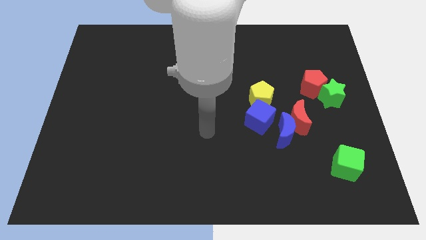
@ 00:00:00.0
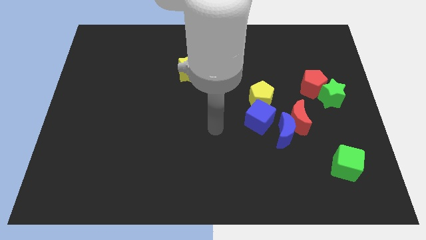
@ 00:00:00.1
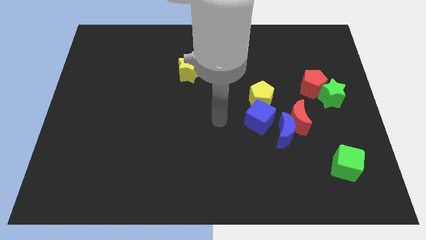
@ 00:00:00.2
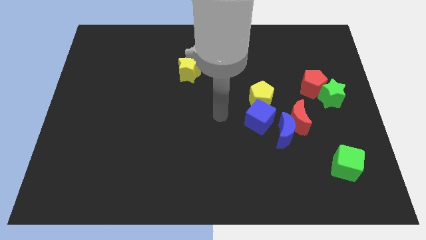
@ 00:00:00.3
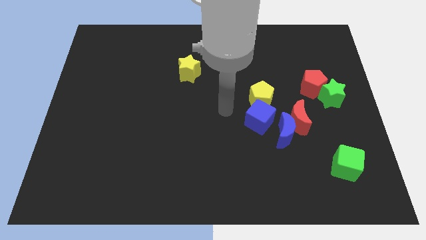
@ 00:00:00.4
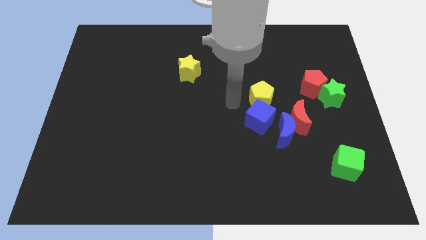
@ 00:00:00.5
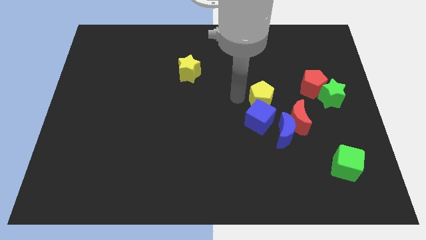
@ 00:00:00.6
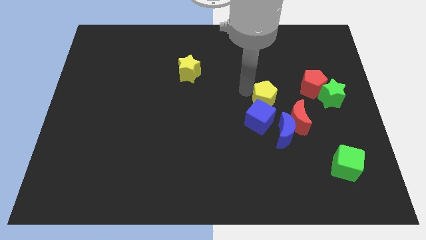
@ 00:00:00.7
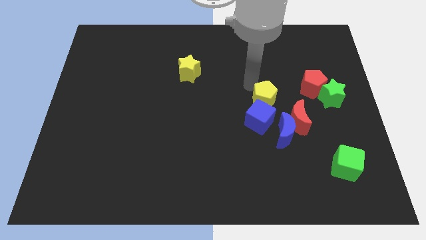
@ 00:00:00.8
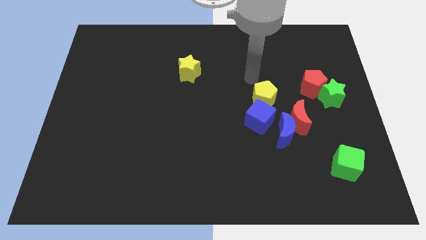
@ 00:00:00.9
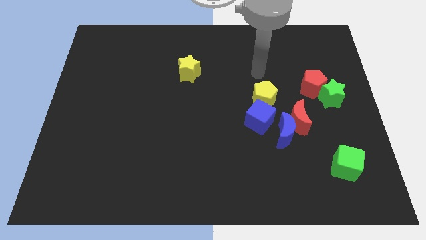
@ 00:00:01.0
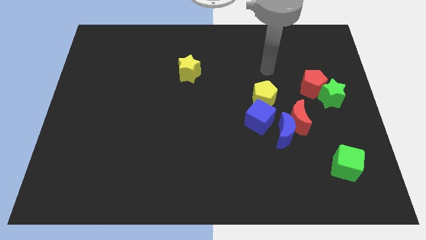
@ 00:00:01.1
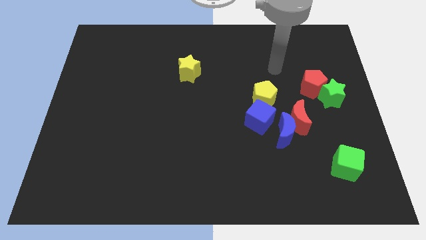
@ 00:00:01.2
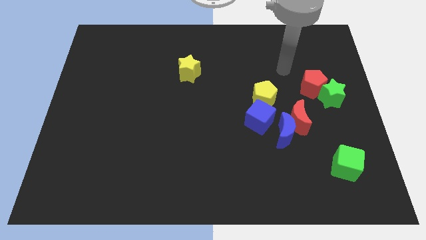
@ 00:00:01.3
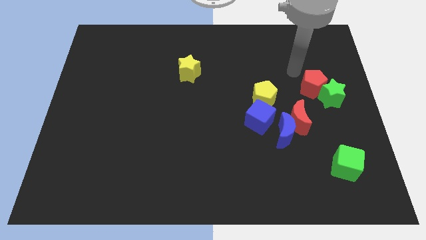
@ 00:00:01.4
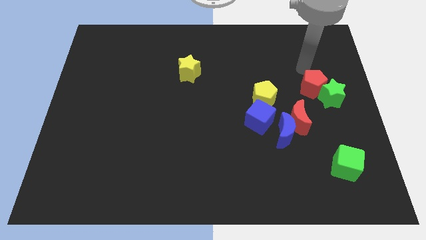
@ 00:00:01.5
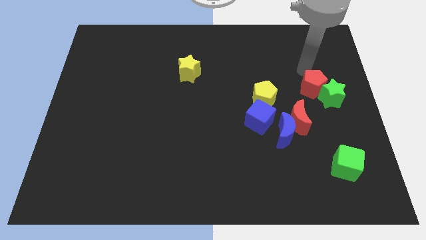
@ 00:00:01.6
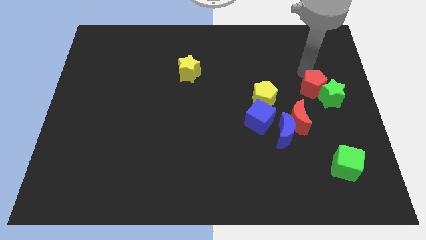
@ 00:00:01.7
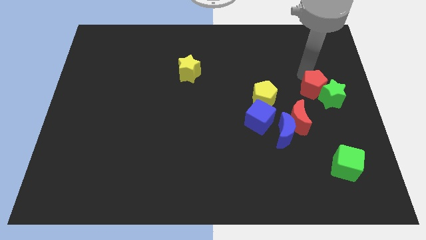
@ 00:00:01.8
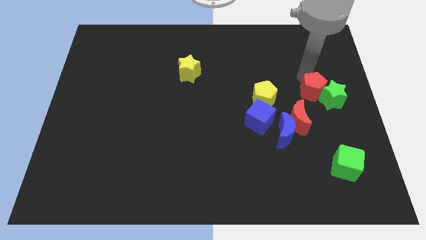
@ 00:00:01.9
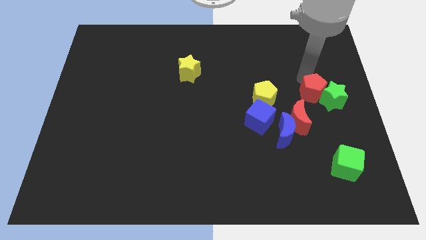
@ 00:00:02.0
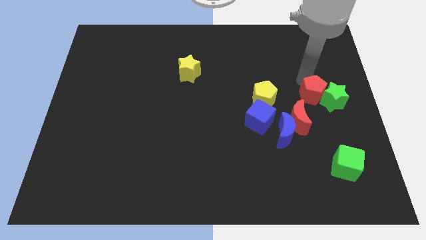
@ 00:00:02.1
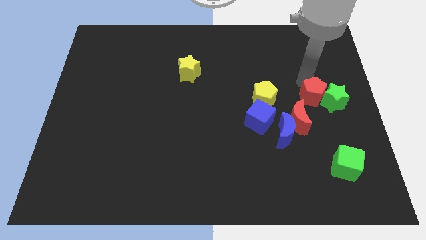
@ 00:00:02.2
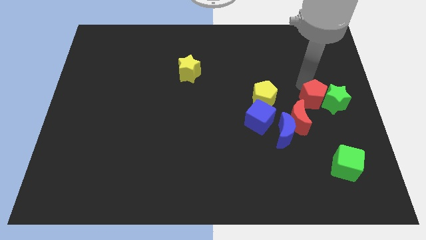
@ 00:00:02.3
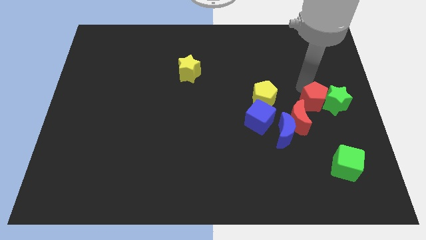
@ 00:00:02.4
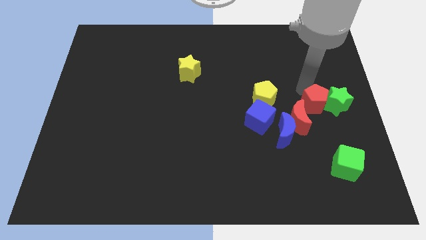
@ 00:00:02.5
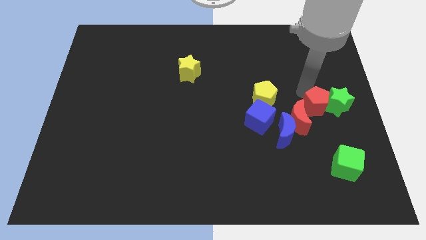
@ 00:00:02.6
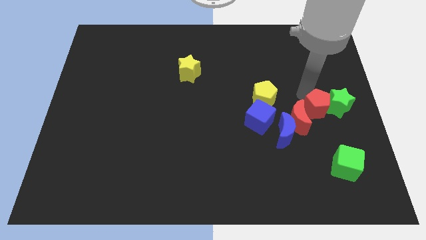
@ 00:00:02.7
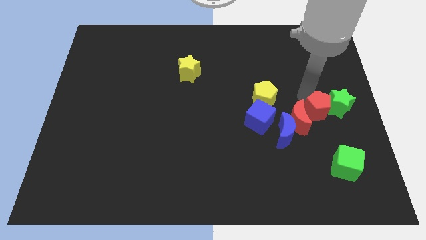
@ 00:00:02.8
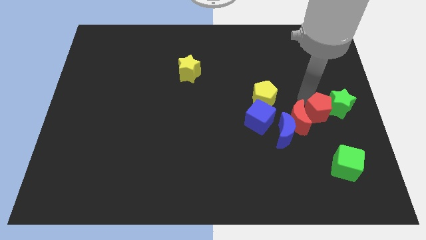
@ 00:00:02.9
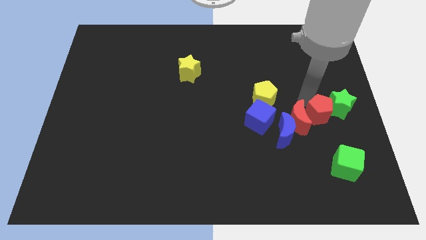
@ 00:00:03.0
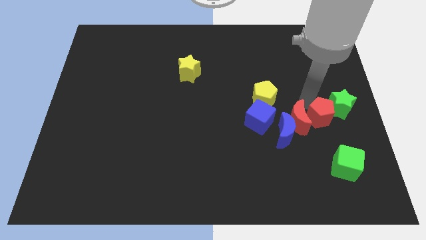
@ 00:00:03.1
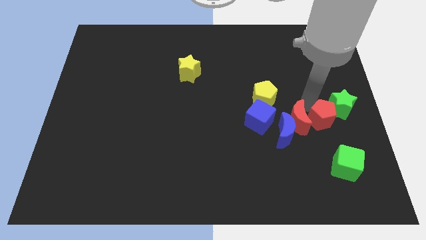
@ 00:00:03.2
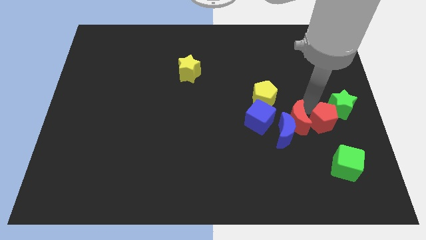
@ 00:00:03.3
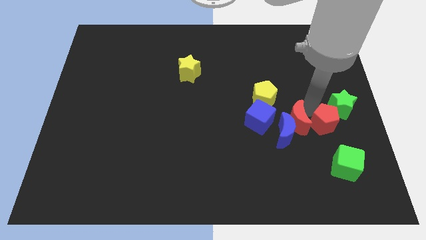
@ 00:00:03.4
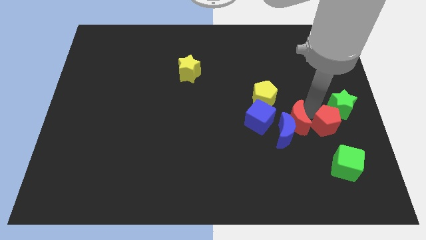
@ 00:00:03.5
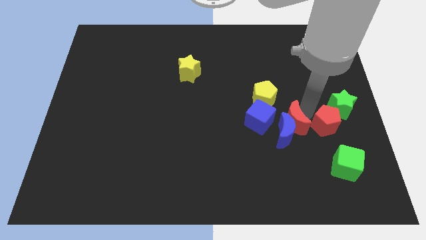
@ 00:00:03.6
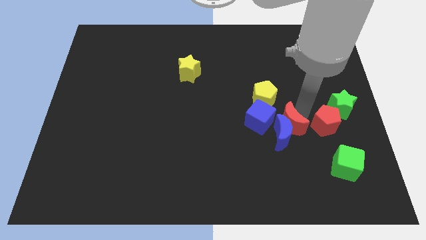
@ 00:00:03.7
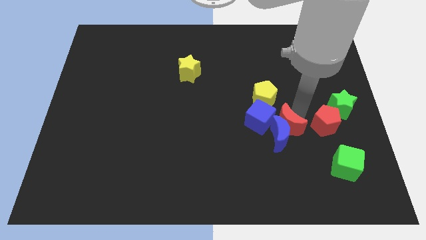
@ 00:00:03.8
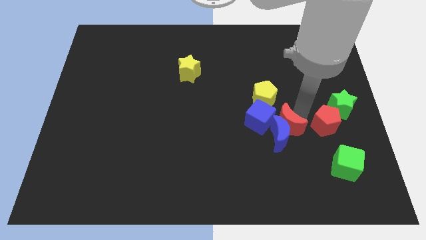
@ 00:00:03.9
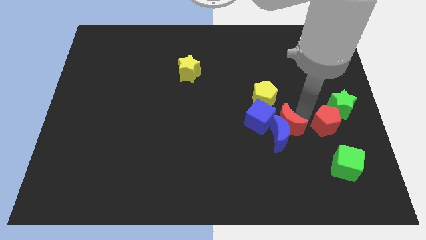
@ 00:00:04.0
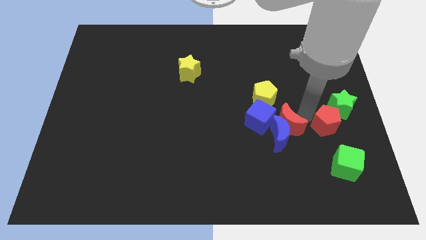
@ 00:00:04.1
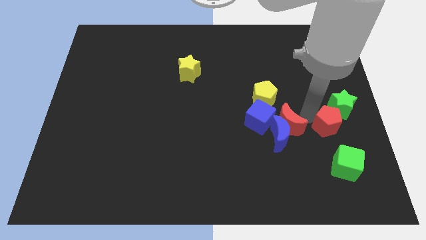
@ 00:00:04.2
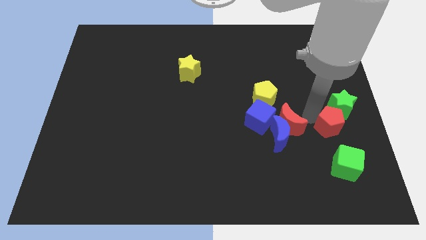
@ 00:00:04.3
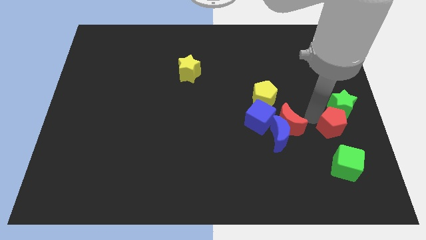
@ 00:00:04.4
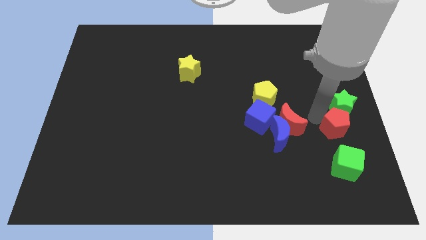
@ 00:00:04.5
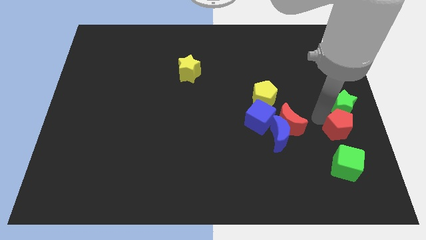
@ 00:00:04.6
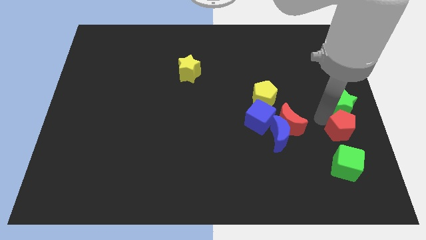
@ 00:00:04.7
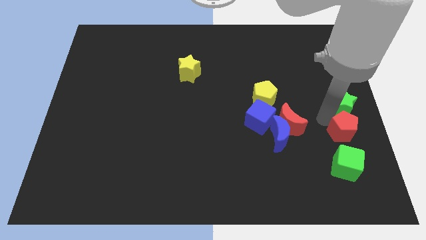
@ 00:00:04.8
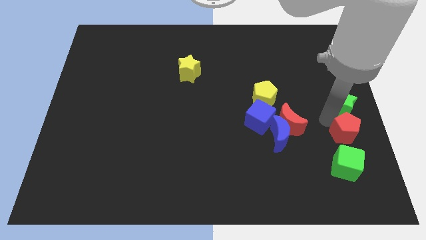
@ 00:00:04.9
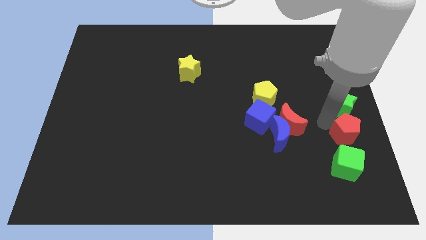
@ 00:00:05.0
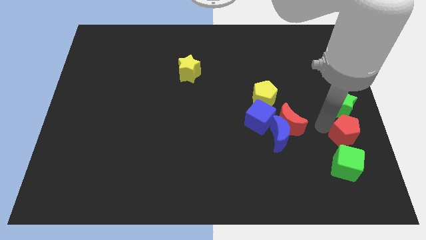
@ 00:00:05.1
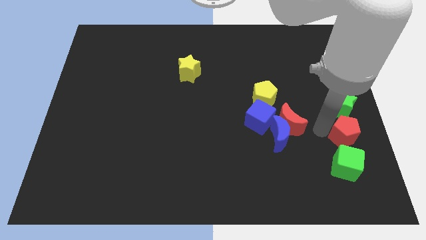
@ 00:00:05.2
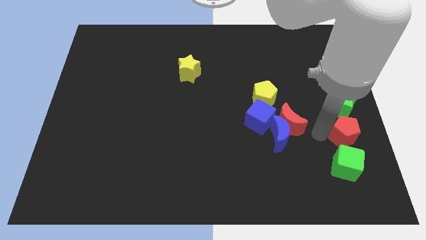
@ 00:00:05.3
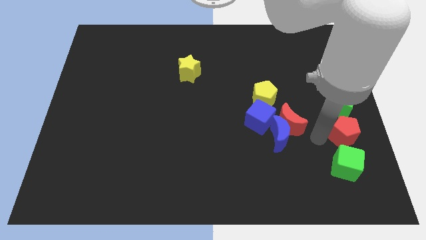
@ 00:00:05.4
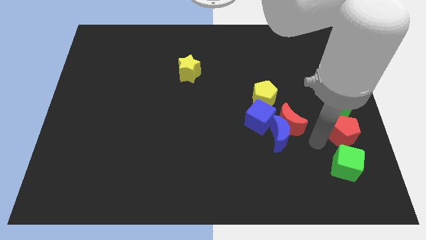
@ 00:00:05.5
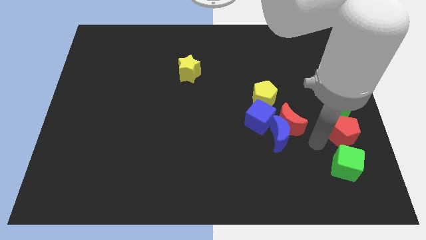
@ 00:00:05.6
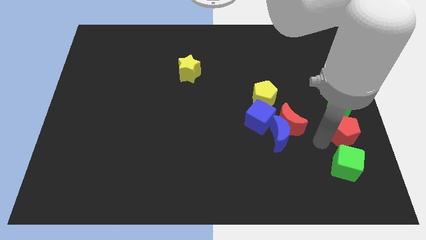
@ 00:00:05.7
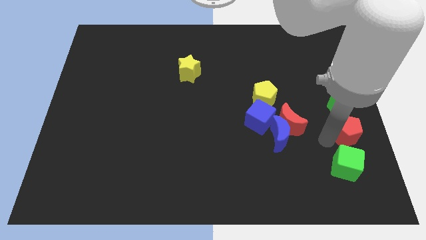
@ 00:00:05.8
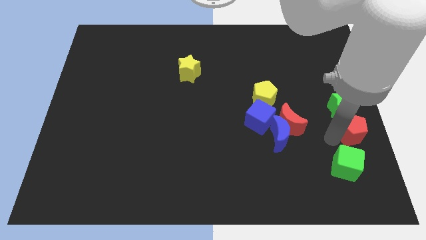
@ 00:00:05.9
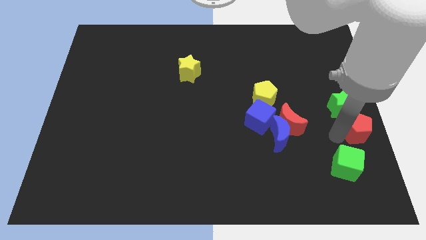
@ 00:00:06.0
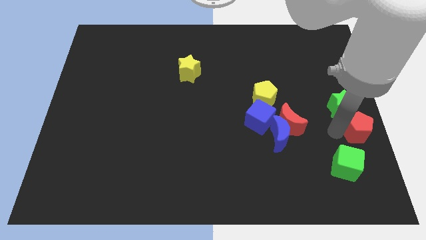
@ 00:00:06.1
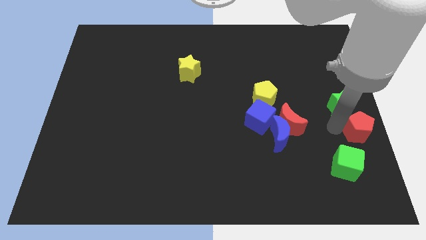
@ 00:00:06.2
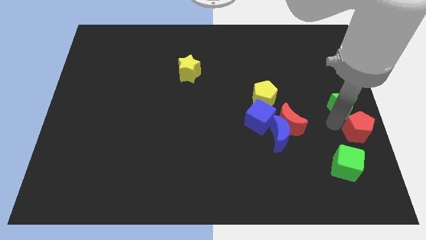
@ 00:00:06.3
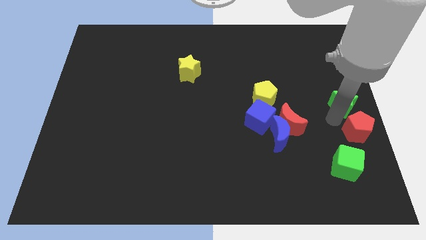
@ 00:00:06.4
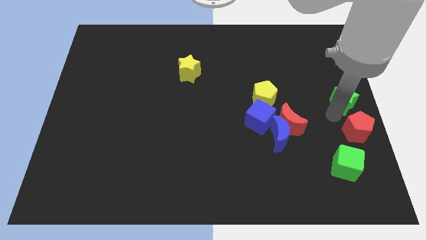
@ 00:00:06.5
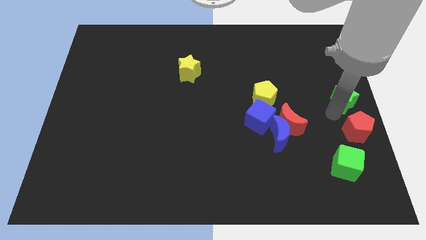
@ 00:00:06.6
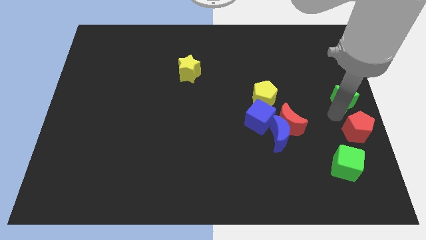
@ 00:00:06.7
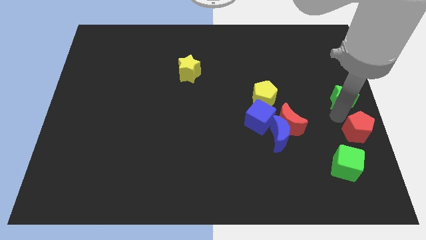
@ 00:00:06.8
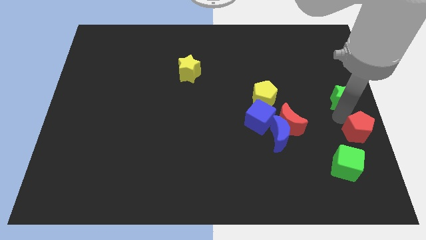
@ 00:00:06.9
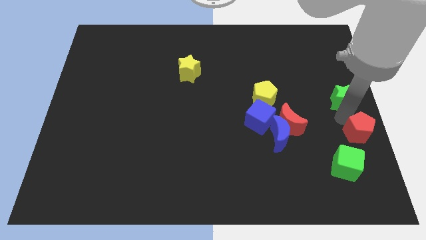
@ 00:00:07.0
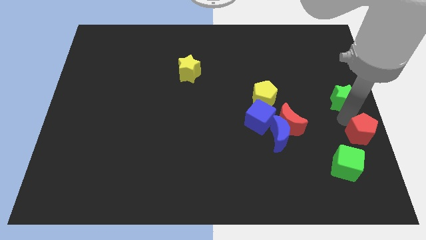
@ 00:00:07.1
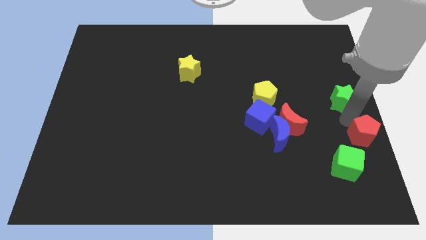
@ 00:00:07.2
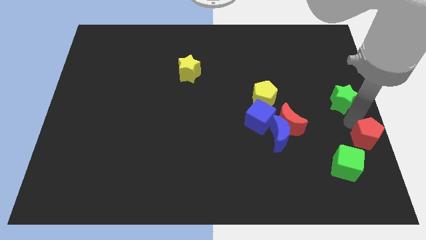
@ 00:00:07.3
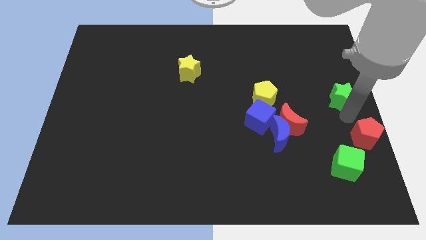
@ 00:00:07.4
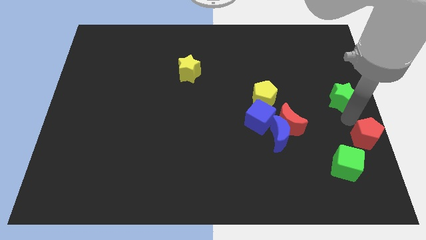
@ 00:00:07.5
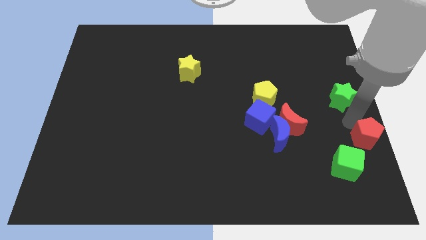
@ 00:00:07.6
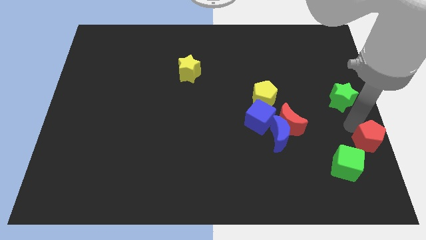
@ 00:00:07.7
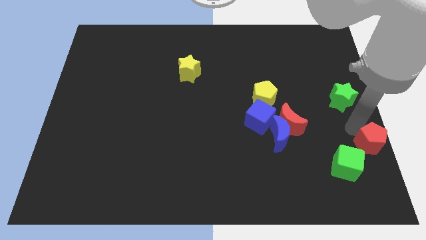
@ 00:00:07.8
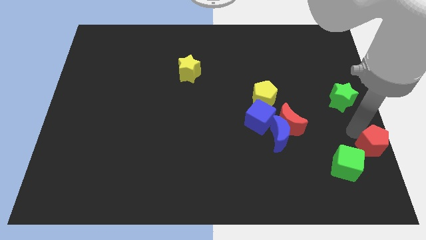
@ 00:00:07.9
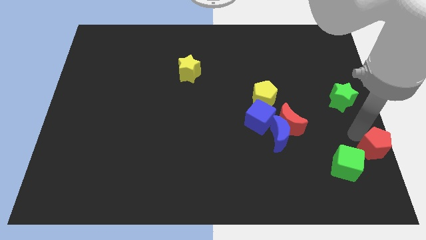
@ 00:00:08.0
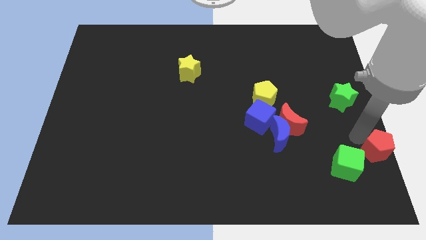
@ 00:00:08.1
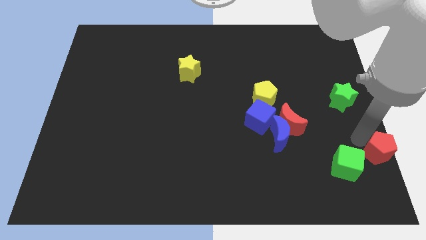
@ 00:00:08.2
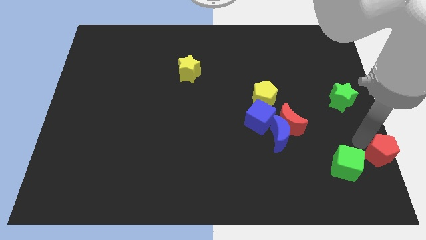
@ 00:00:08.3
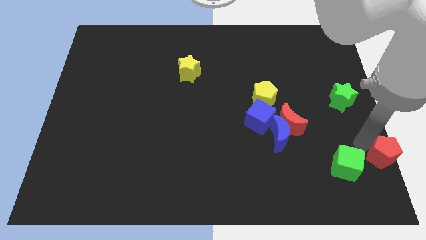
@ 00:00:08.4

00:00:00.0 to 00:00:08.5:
push the red pentagon to the bottom right
